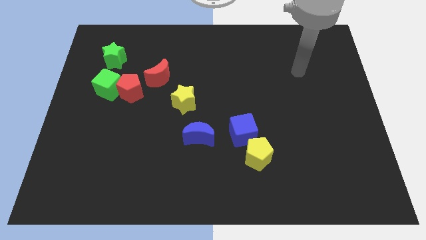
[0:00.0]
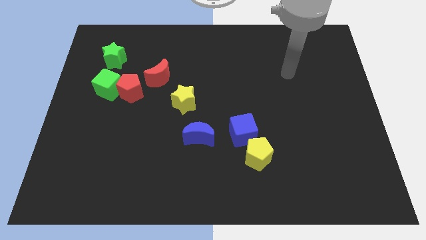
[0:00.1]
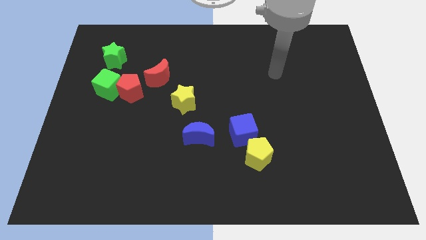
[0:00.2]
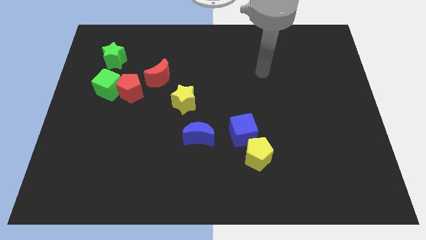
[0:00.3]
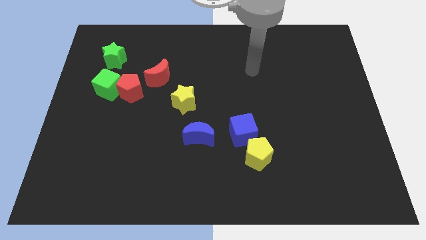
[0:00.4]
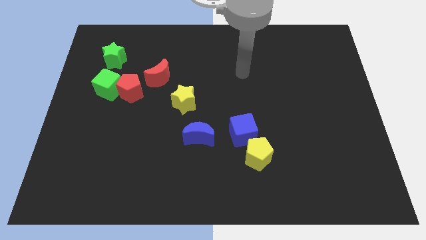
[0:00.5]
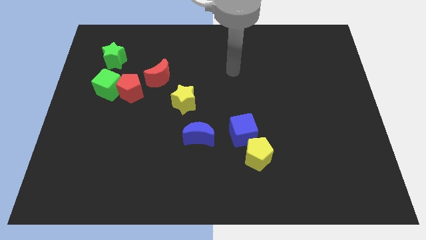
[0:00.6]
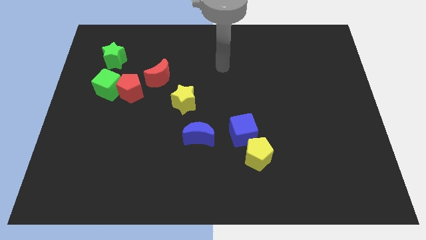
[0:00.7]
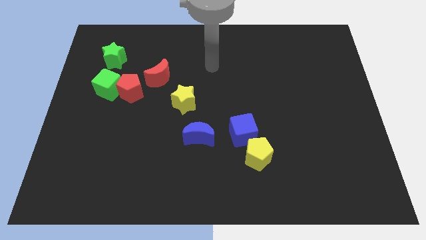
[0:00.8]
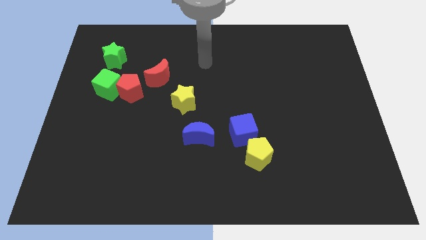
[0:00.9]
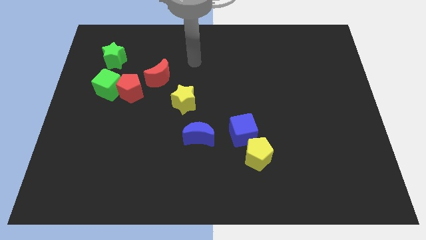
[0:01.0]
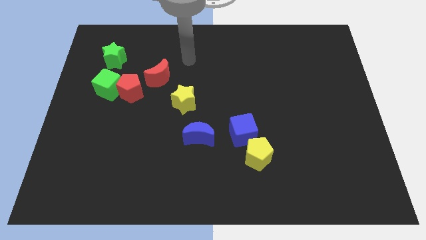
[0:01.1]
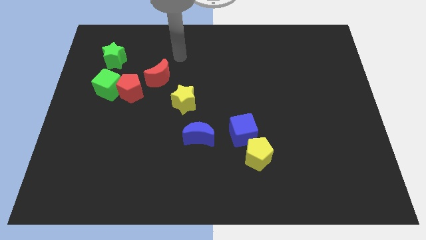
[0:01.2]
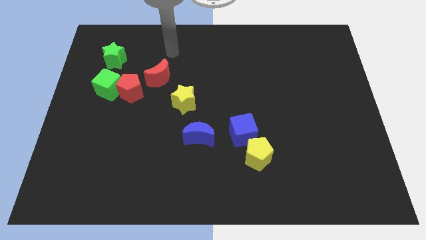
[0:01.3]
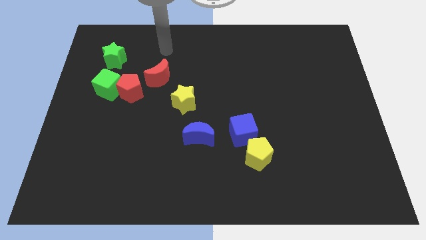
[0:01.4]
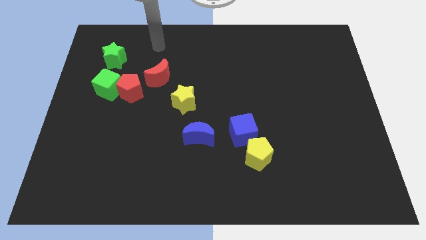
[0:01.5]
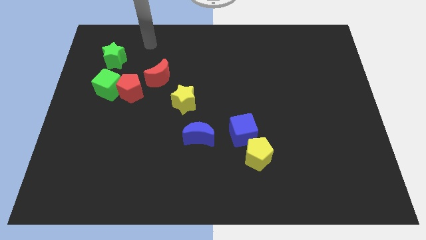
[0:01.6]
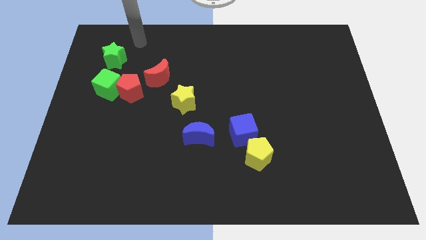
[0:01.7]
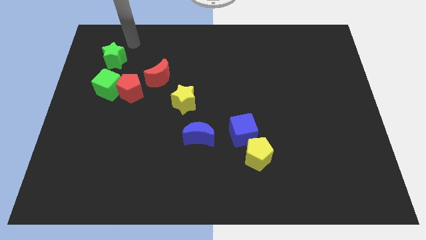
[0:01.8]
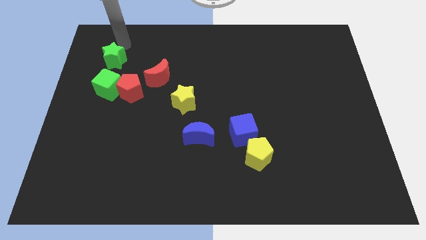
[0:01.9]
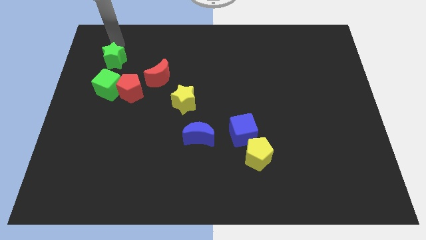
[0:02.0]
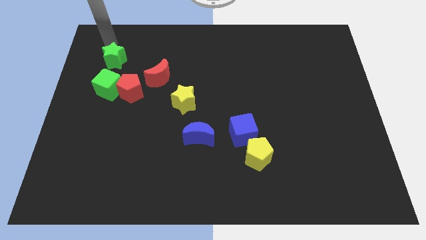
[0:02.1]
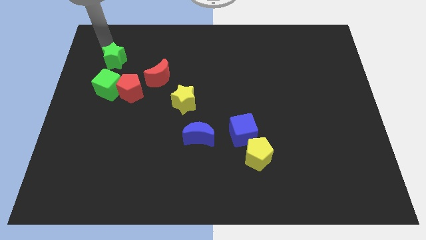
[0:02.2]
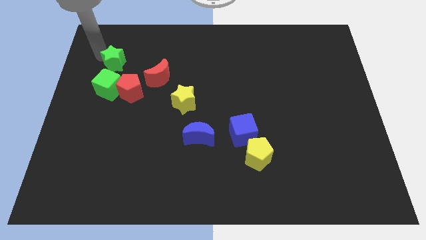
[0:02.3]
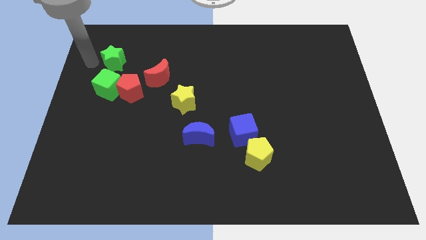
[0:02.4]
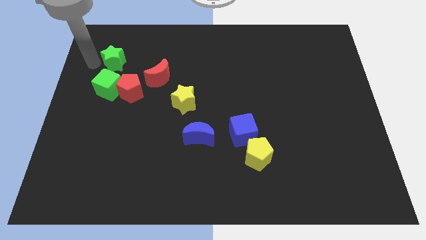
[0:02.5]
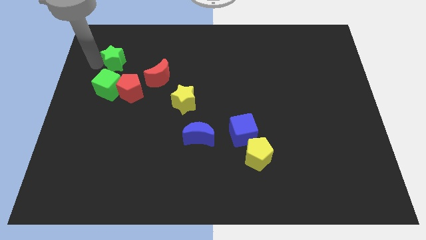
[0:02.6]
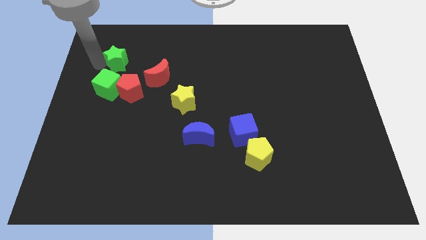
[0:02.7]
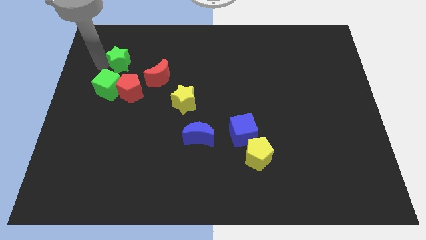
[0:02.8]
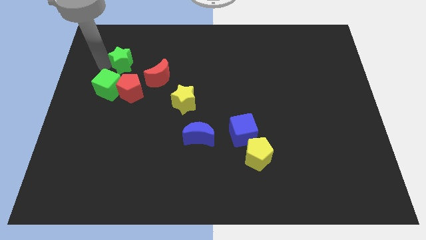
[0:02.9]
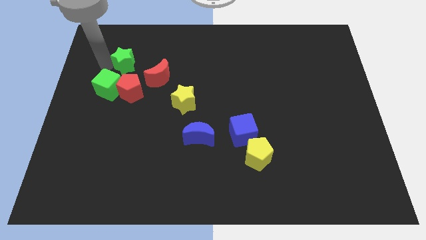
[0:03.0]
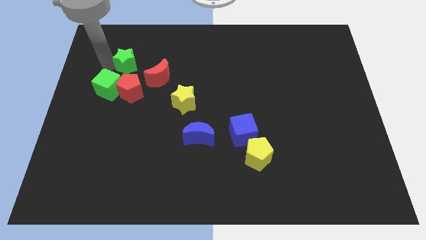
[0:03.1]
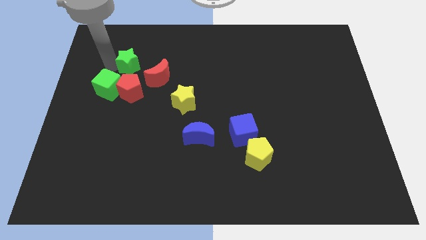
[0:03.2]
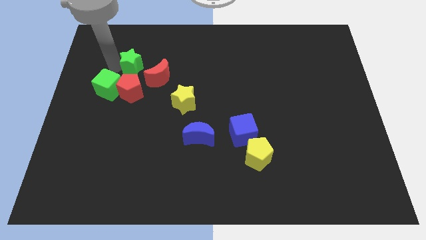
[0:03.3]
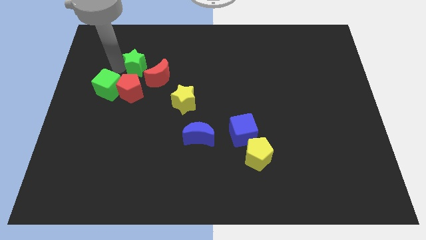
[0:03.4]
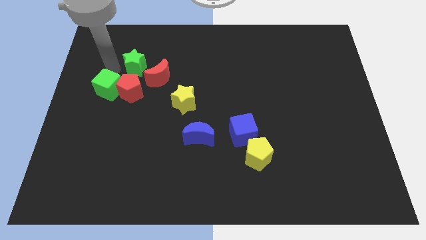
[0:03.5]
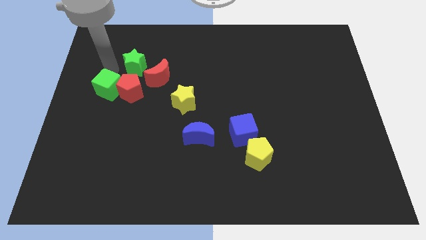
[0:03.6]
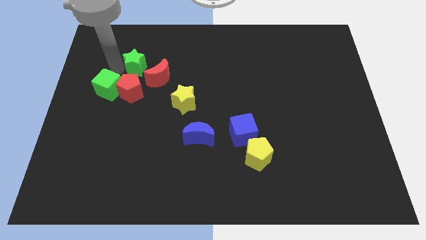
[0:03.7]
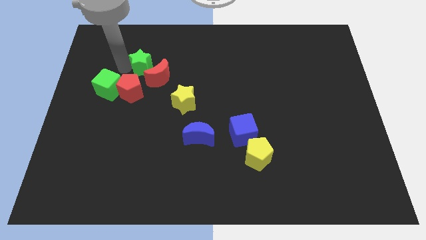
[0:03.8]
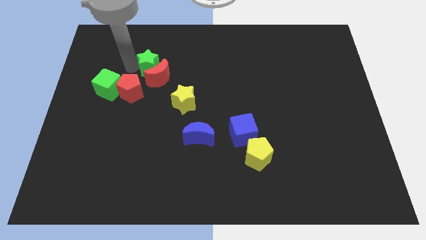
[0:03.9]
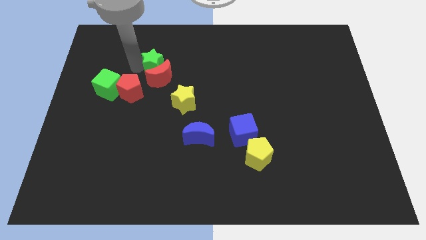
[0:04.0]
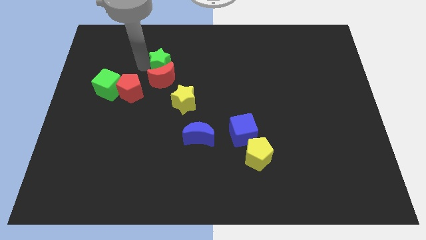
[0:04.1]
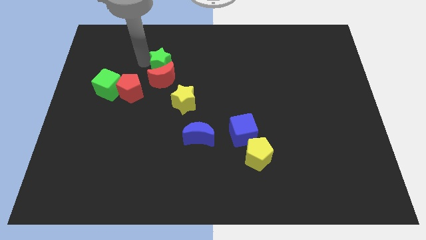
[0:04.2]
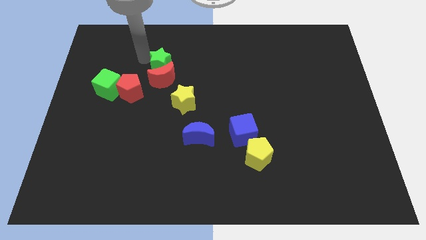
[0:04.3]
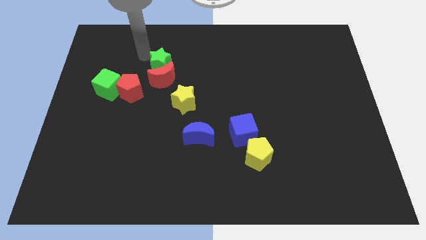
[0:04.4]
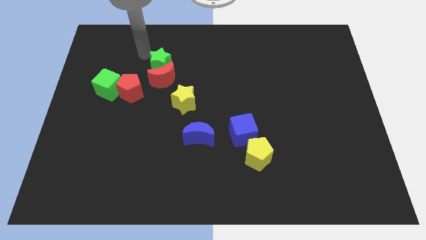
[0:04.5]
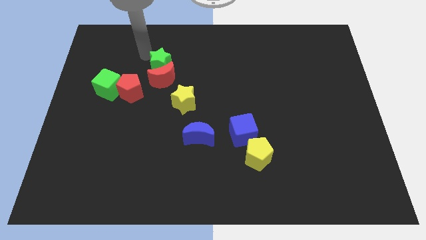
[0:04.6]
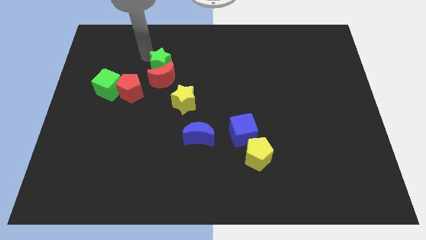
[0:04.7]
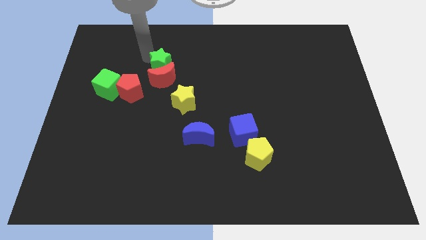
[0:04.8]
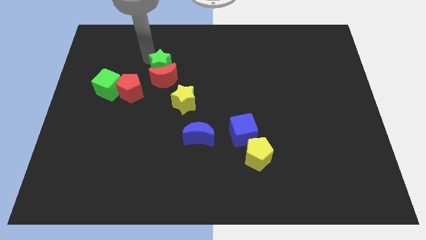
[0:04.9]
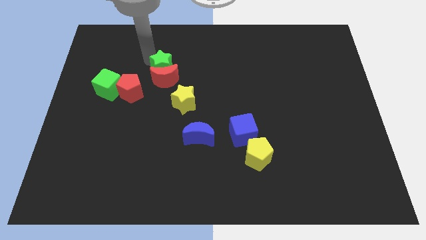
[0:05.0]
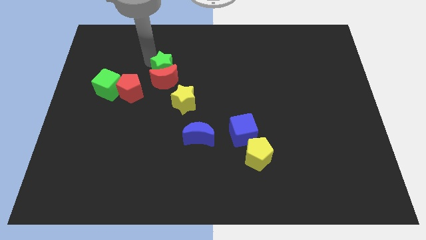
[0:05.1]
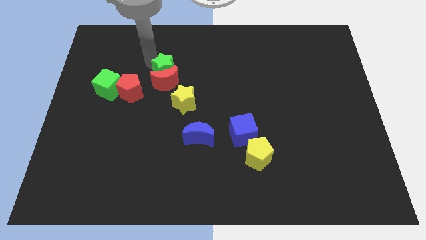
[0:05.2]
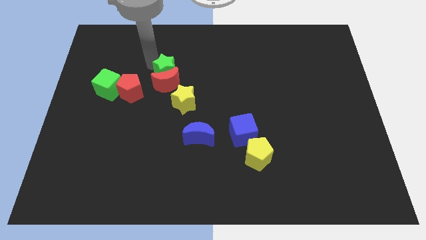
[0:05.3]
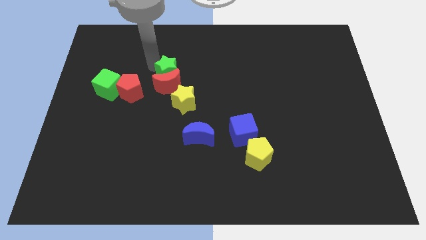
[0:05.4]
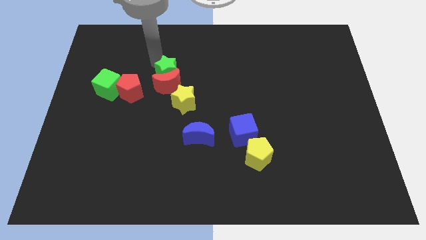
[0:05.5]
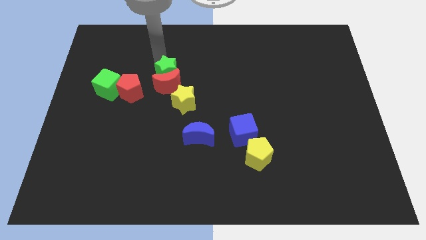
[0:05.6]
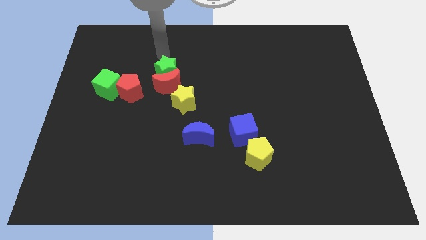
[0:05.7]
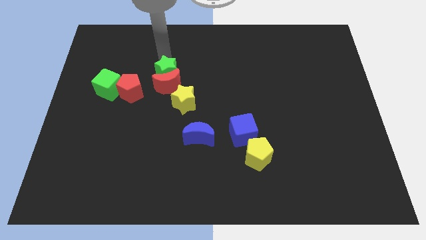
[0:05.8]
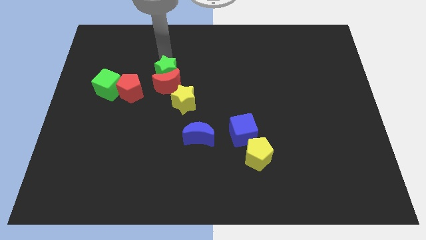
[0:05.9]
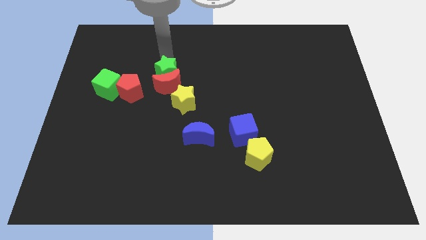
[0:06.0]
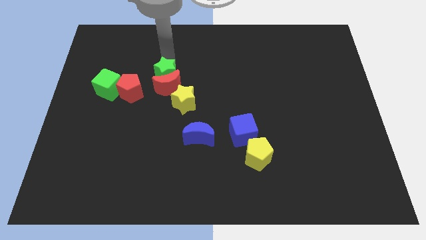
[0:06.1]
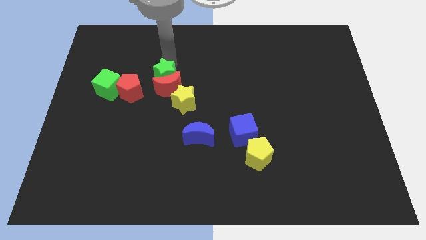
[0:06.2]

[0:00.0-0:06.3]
push the green star to the right of the red pentagon
